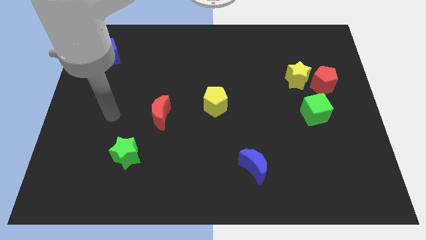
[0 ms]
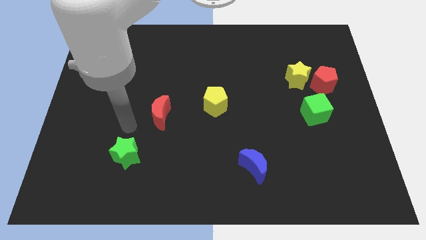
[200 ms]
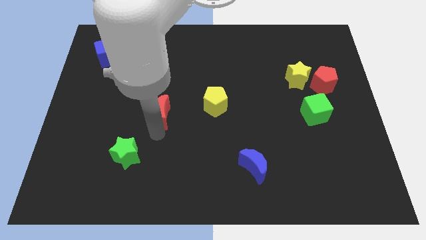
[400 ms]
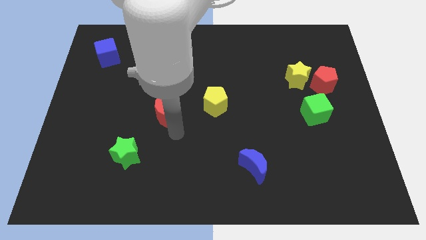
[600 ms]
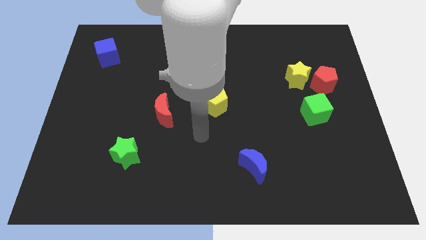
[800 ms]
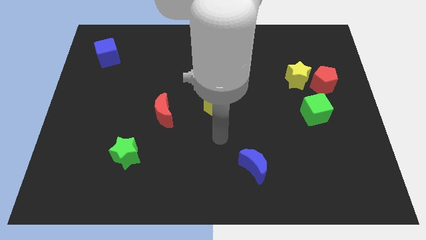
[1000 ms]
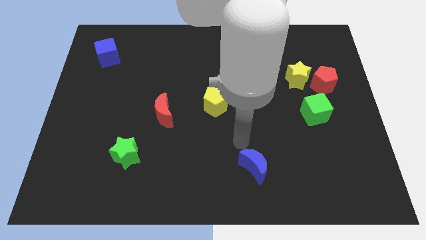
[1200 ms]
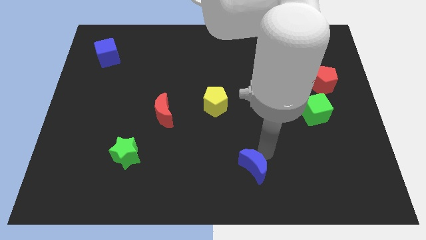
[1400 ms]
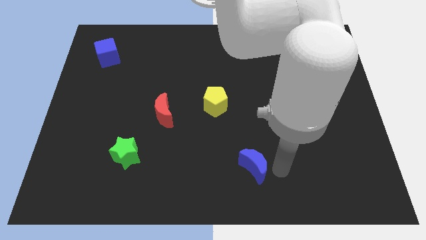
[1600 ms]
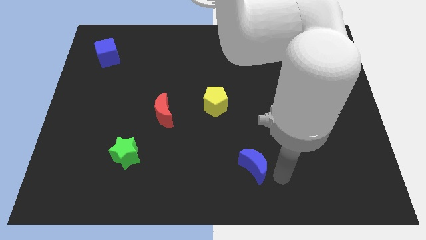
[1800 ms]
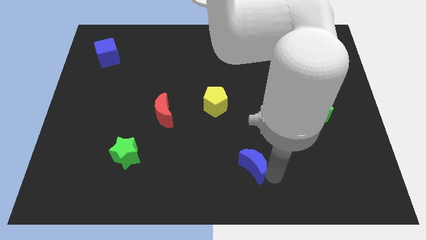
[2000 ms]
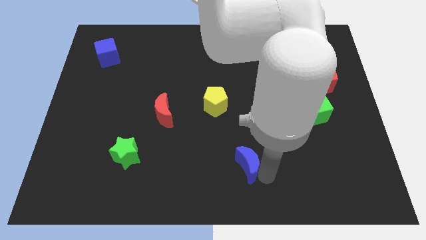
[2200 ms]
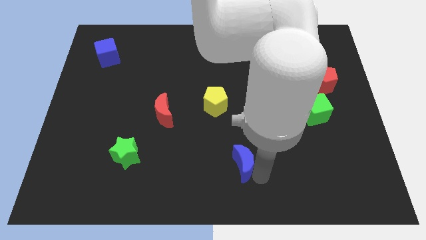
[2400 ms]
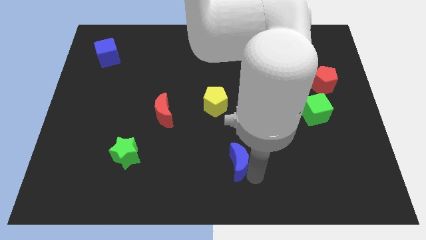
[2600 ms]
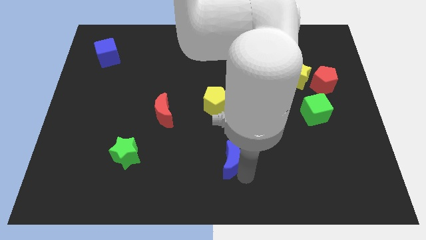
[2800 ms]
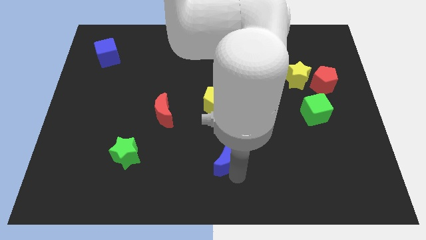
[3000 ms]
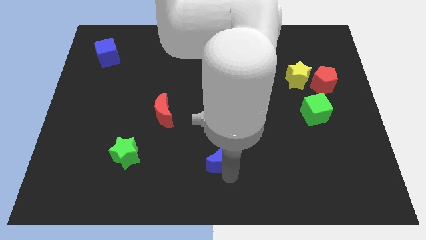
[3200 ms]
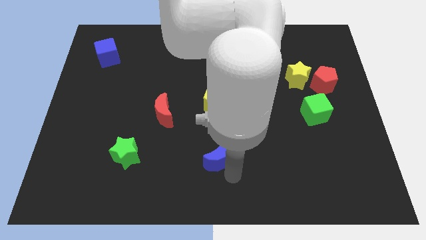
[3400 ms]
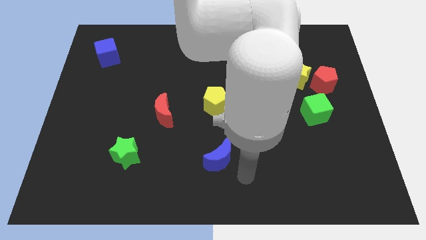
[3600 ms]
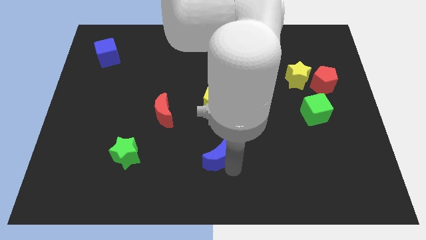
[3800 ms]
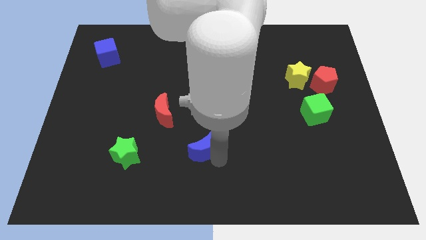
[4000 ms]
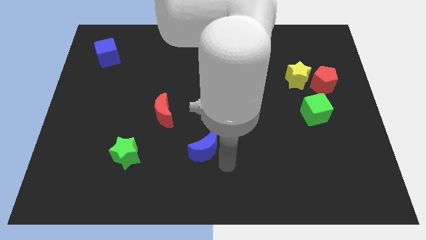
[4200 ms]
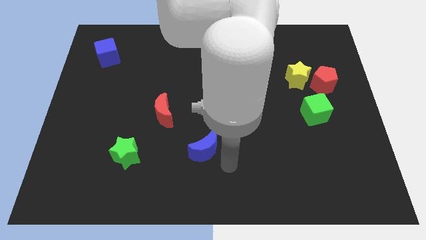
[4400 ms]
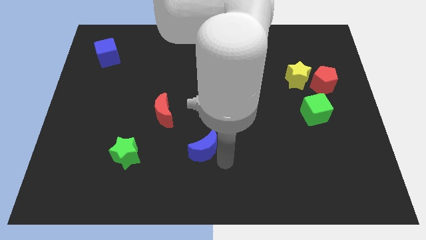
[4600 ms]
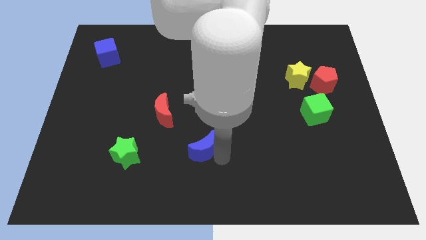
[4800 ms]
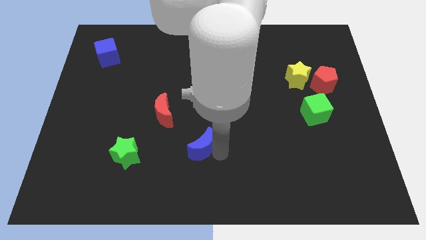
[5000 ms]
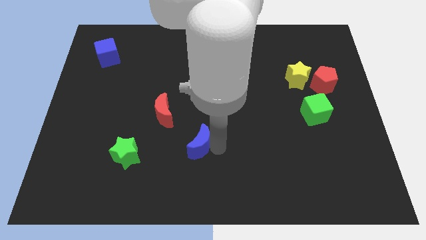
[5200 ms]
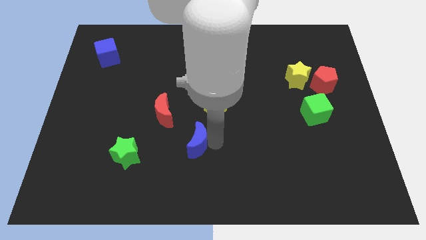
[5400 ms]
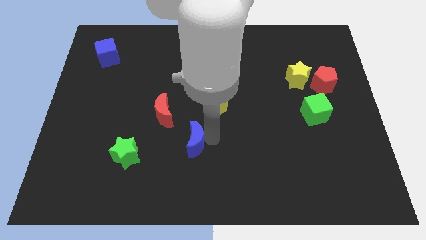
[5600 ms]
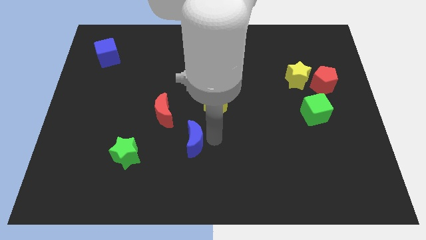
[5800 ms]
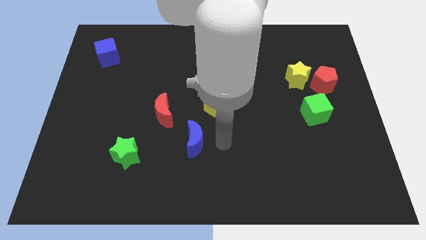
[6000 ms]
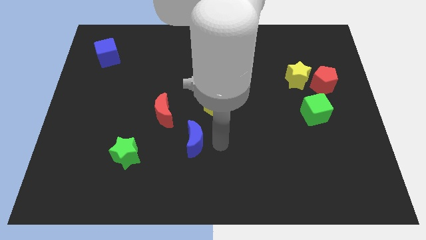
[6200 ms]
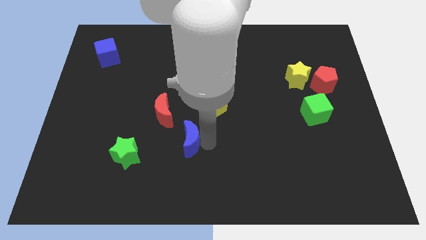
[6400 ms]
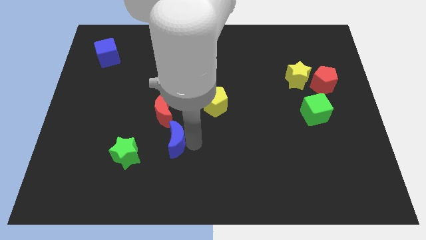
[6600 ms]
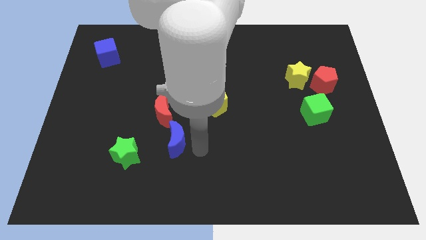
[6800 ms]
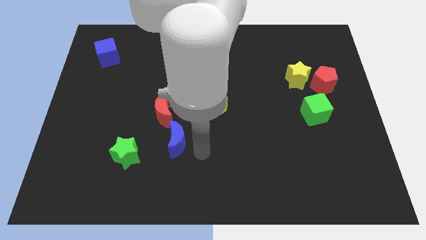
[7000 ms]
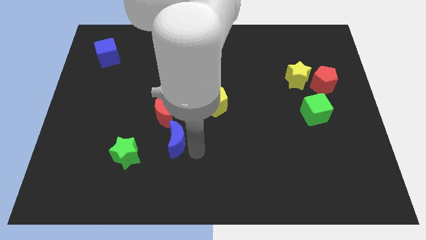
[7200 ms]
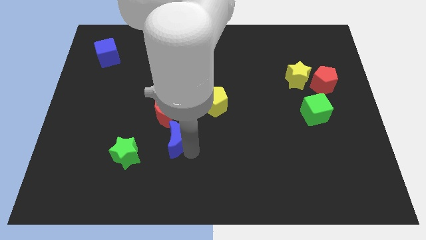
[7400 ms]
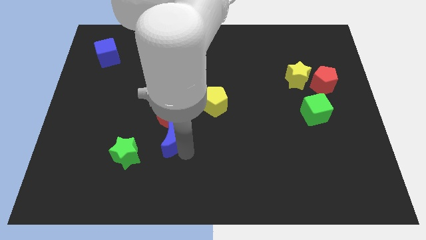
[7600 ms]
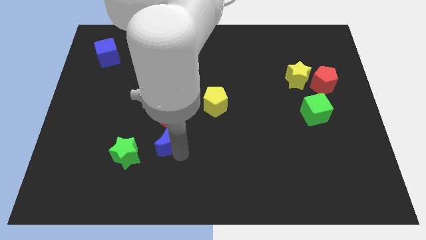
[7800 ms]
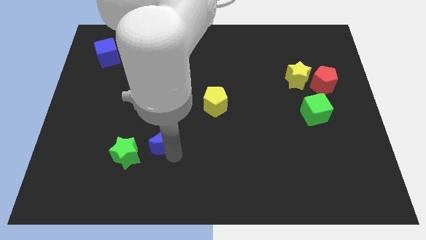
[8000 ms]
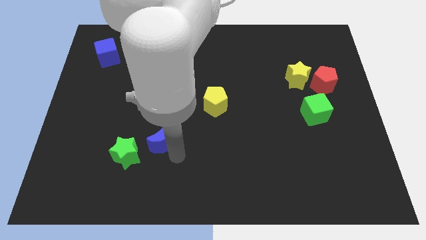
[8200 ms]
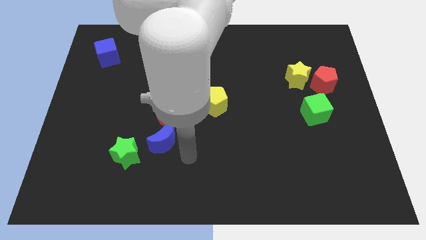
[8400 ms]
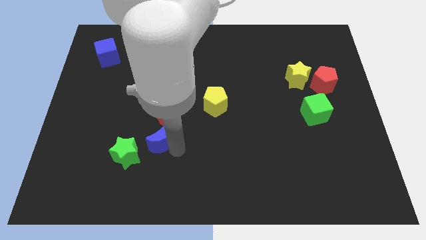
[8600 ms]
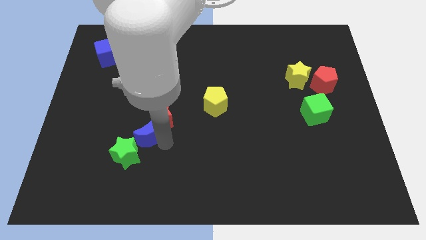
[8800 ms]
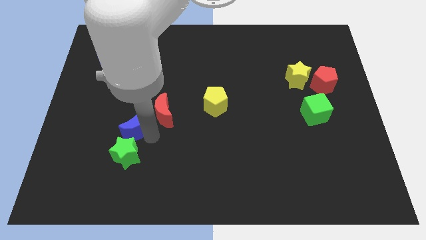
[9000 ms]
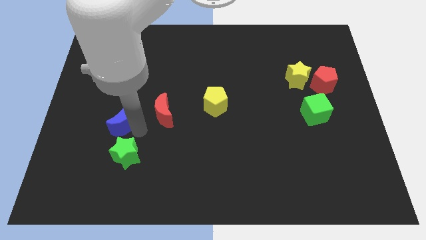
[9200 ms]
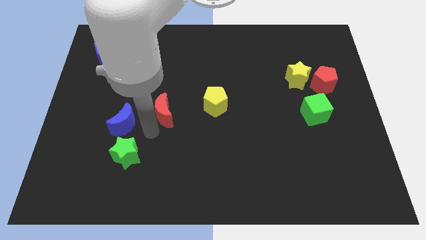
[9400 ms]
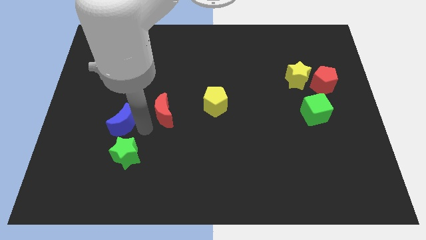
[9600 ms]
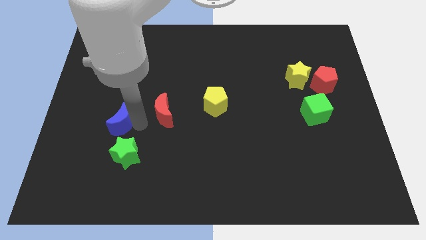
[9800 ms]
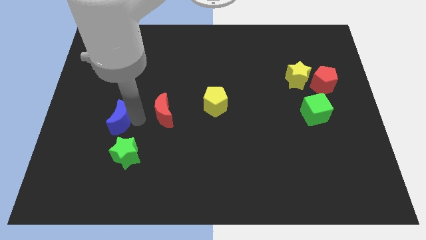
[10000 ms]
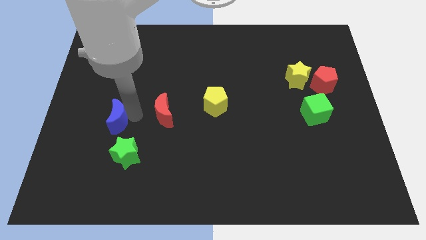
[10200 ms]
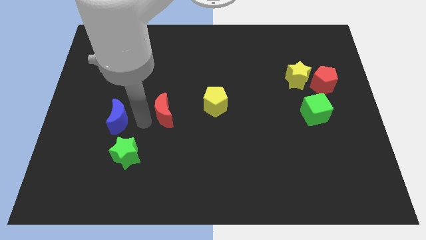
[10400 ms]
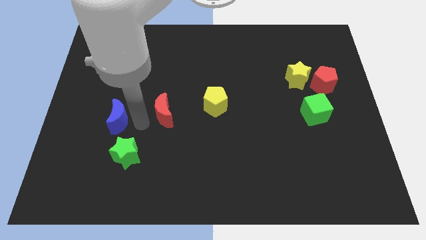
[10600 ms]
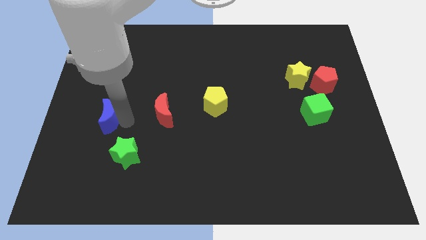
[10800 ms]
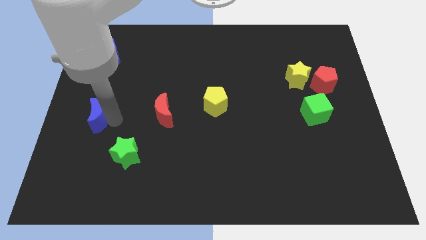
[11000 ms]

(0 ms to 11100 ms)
push the blue moon to the left side of the board

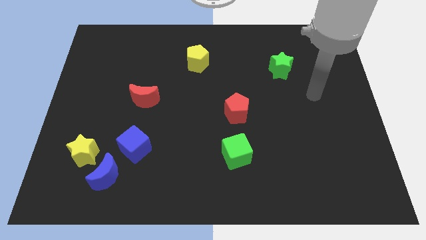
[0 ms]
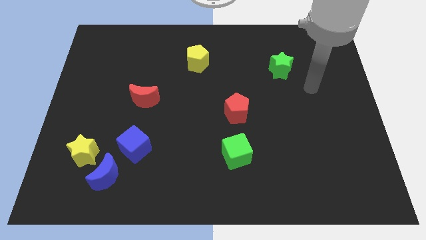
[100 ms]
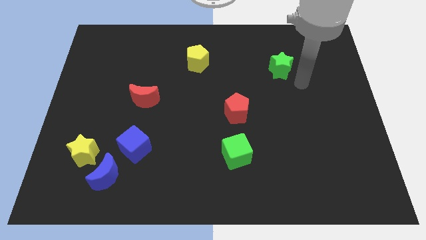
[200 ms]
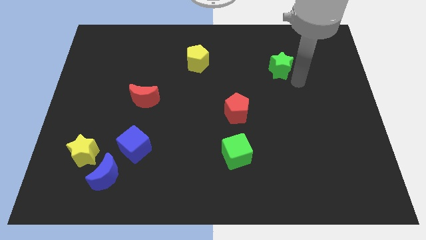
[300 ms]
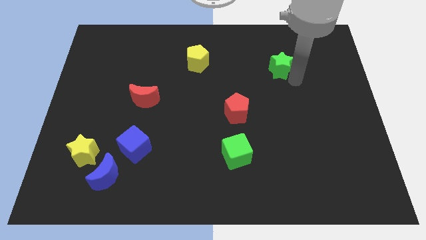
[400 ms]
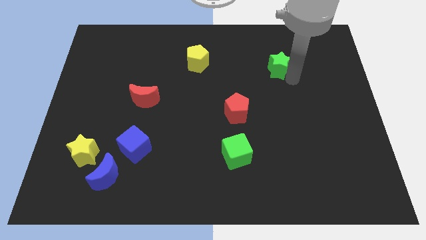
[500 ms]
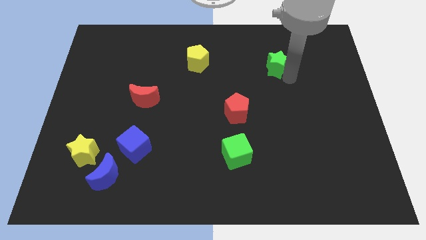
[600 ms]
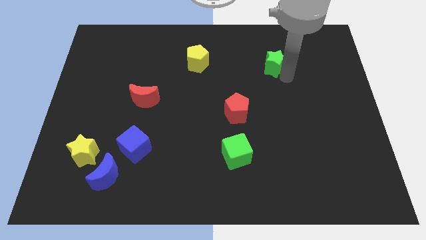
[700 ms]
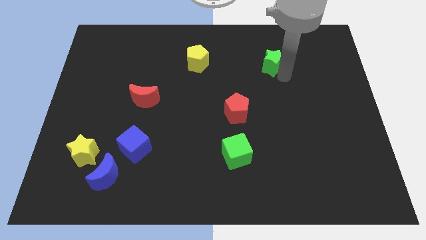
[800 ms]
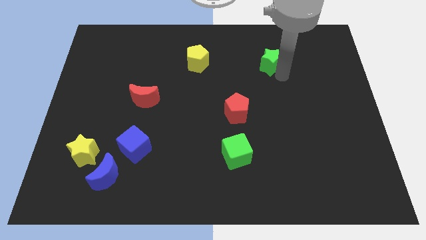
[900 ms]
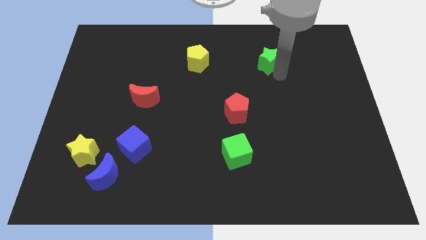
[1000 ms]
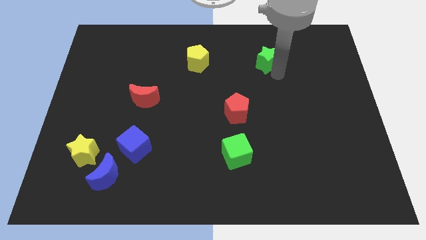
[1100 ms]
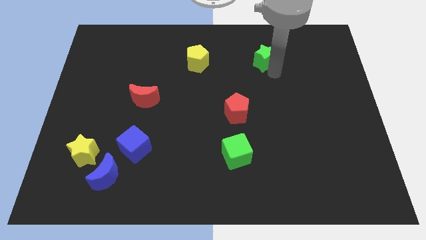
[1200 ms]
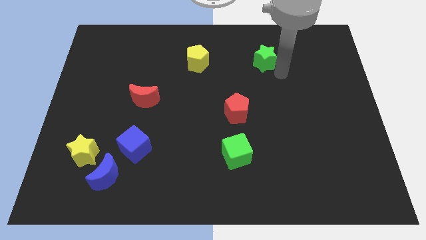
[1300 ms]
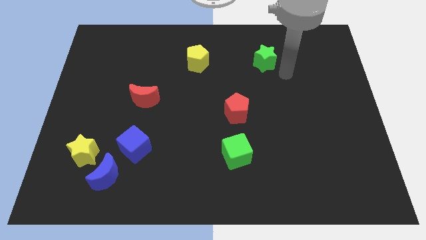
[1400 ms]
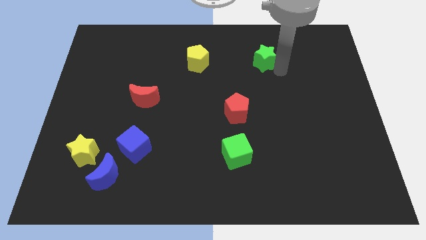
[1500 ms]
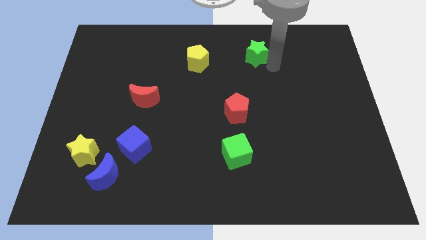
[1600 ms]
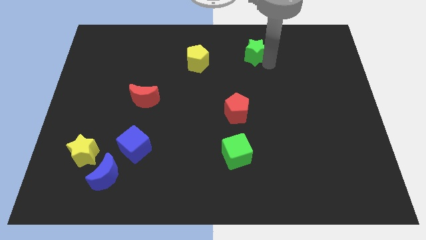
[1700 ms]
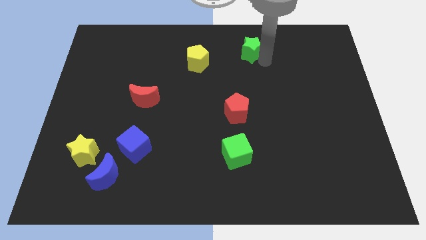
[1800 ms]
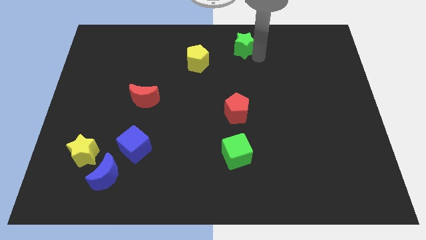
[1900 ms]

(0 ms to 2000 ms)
put the green star to the top side
